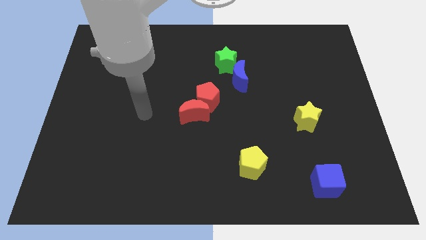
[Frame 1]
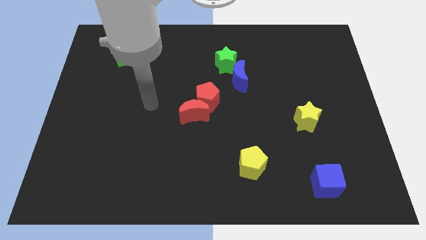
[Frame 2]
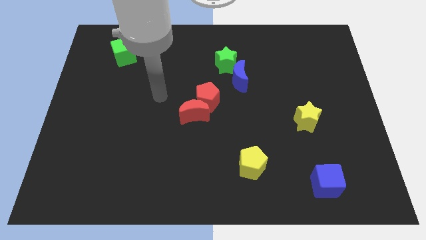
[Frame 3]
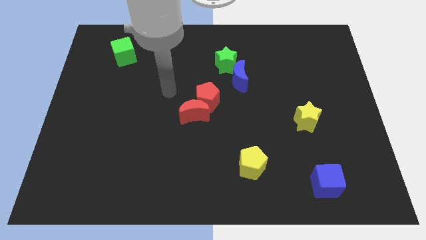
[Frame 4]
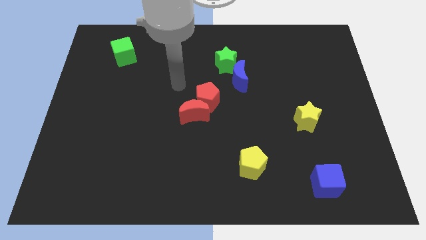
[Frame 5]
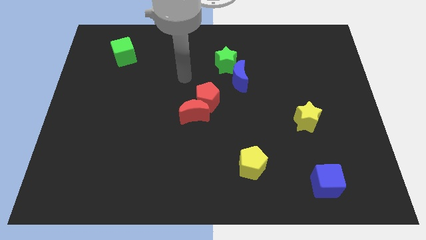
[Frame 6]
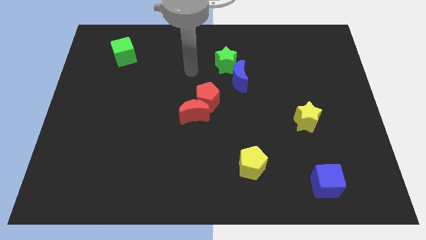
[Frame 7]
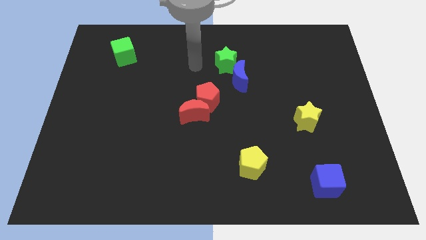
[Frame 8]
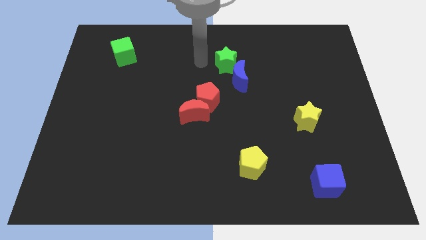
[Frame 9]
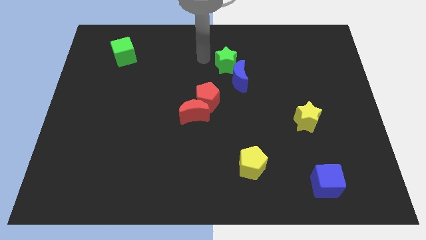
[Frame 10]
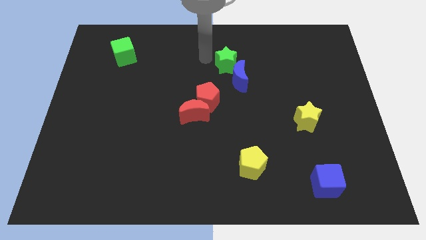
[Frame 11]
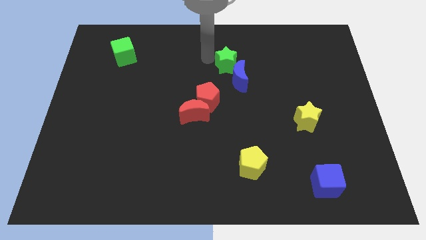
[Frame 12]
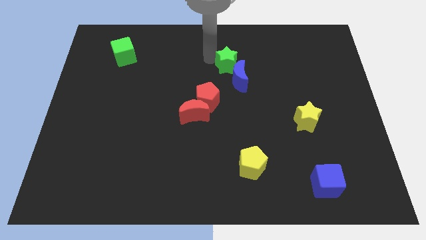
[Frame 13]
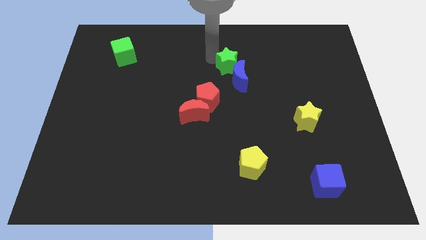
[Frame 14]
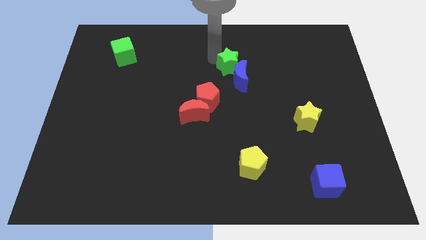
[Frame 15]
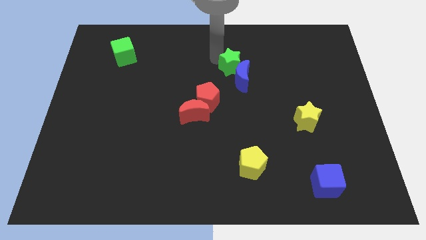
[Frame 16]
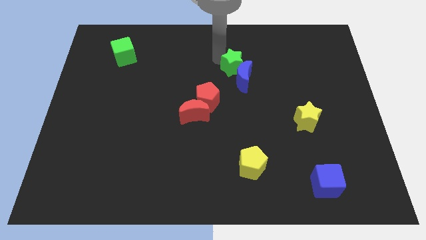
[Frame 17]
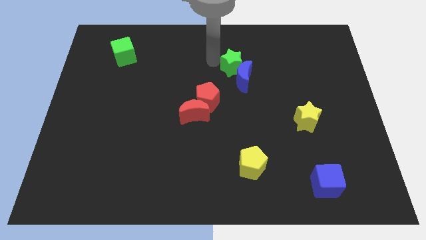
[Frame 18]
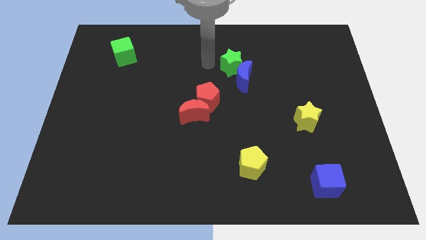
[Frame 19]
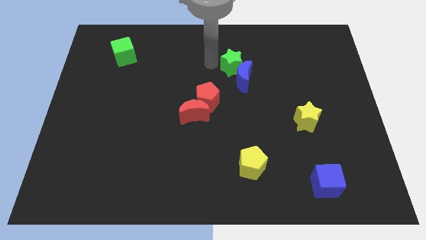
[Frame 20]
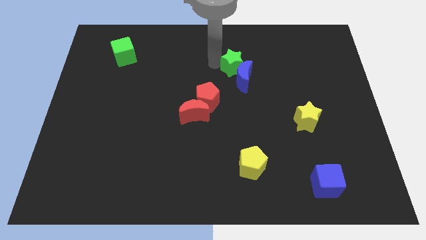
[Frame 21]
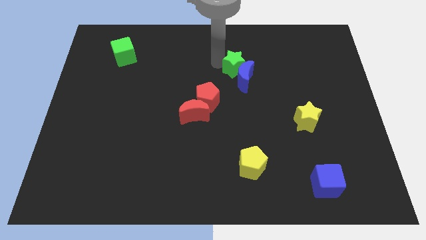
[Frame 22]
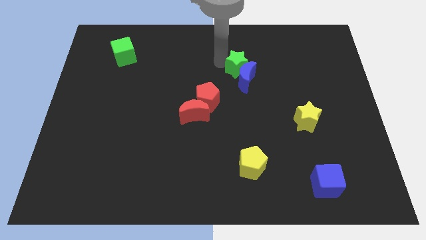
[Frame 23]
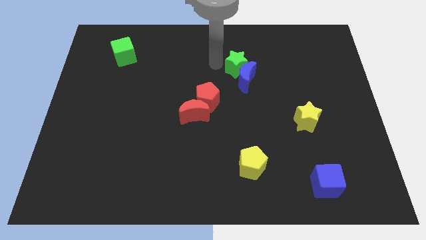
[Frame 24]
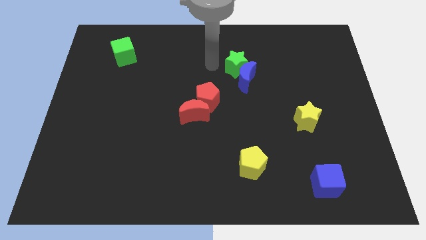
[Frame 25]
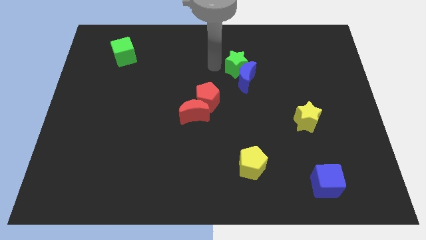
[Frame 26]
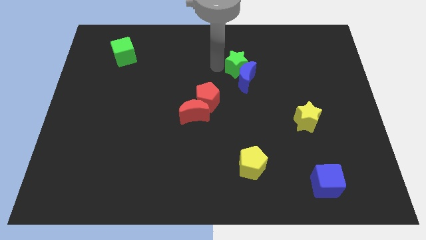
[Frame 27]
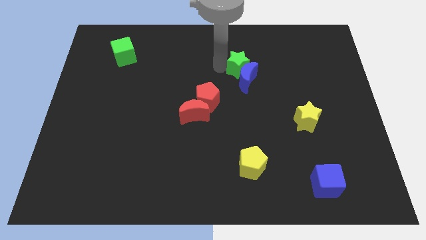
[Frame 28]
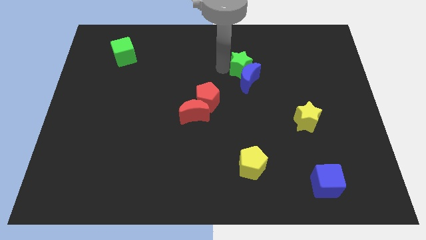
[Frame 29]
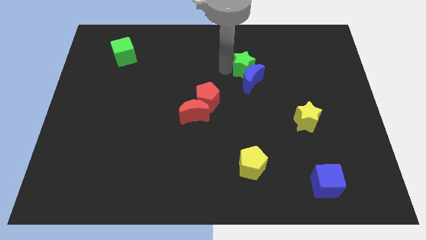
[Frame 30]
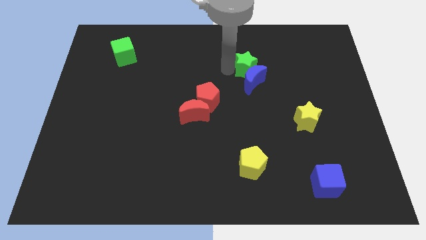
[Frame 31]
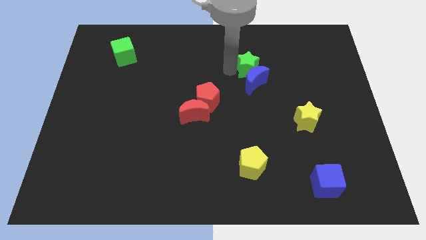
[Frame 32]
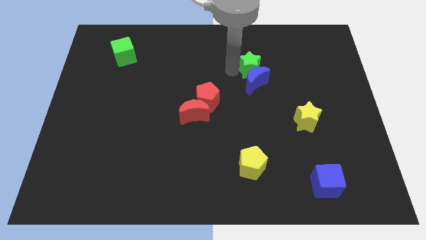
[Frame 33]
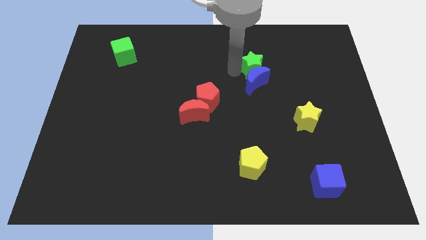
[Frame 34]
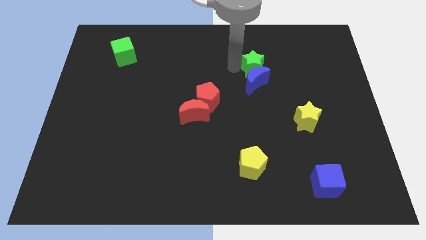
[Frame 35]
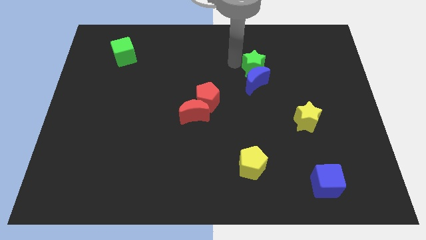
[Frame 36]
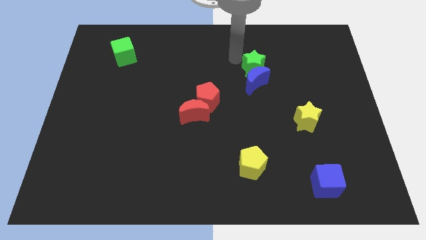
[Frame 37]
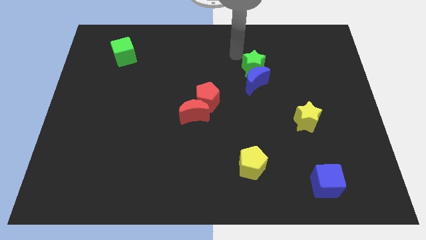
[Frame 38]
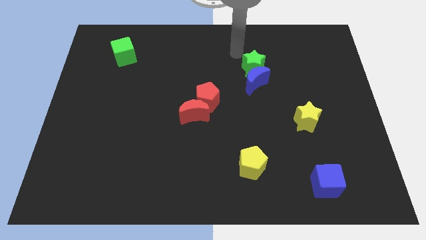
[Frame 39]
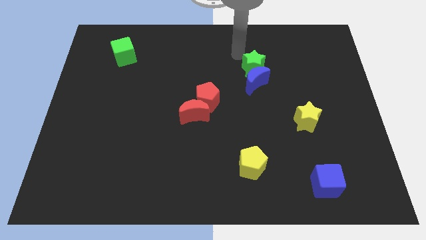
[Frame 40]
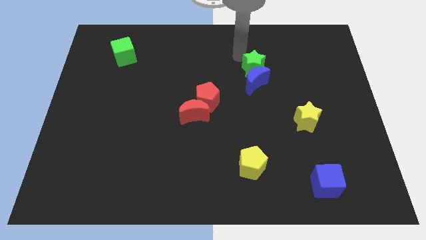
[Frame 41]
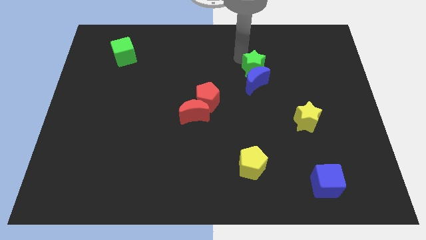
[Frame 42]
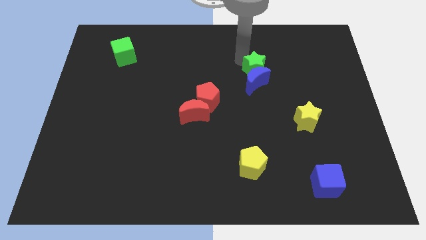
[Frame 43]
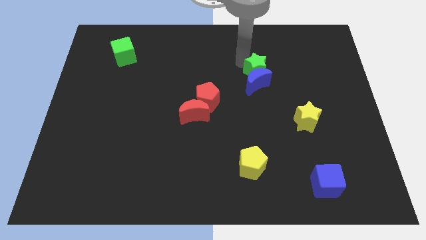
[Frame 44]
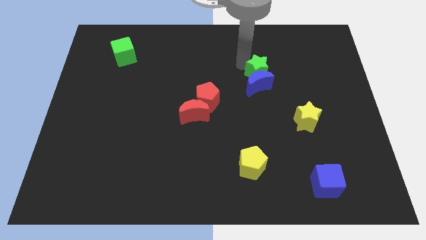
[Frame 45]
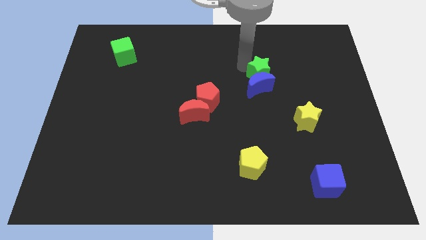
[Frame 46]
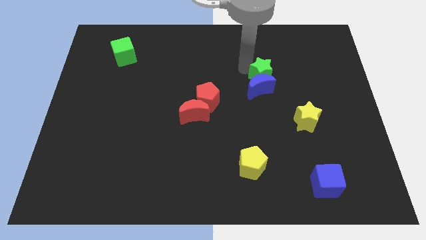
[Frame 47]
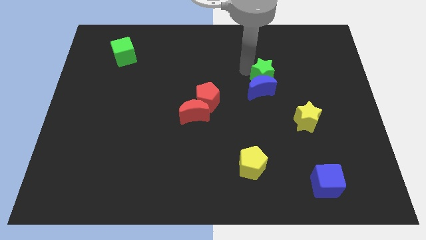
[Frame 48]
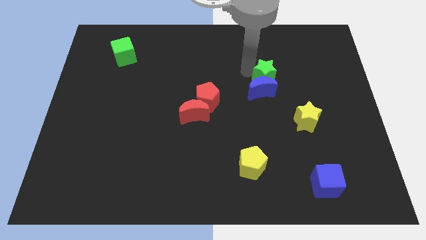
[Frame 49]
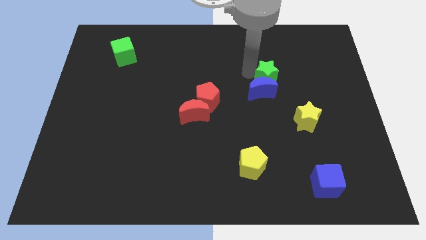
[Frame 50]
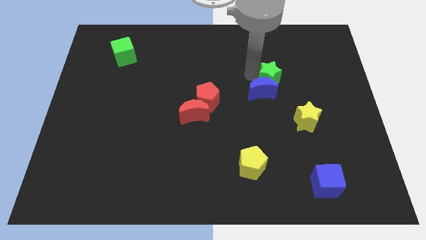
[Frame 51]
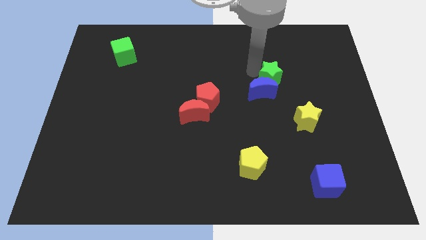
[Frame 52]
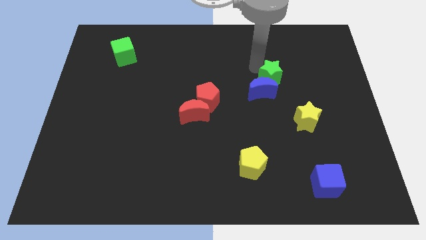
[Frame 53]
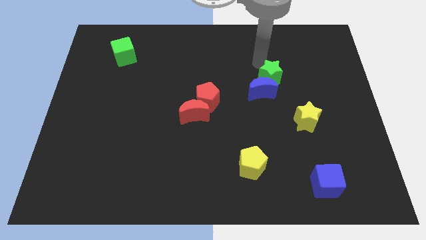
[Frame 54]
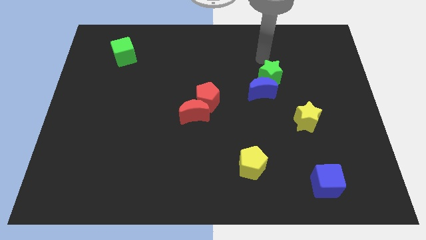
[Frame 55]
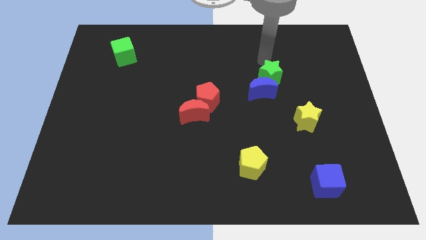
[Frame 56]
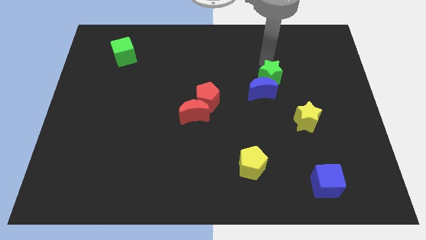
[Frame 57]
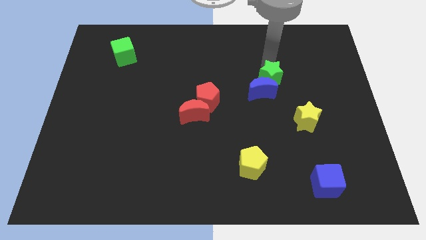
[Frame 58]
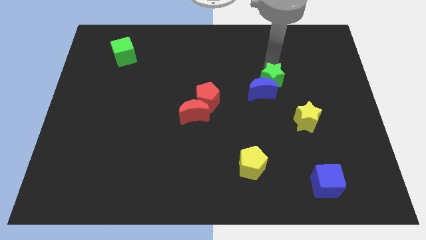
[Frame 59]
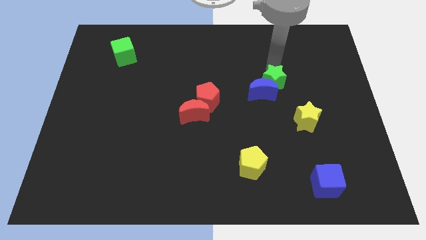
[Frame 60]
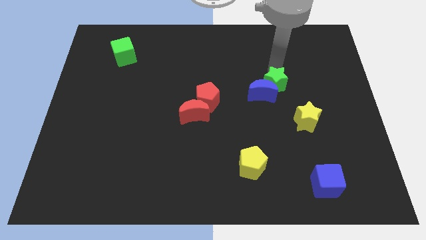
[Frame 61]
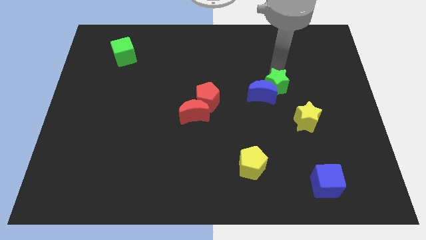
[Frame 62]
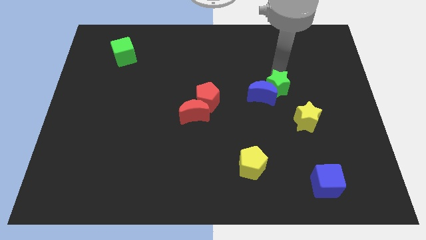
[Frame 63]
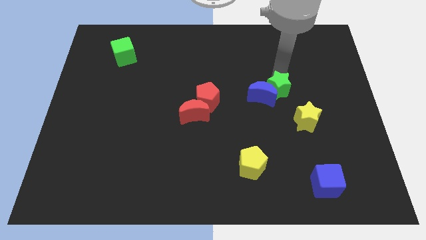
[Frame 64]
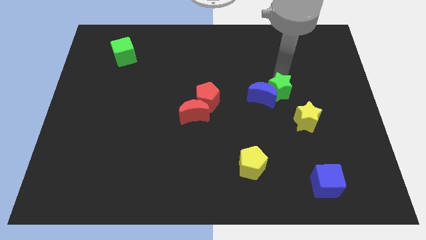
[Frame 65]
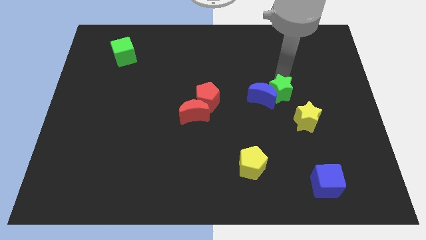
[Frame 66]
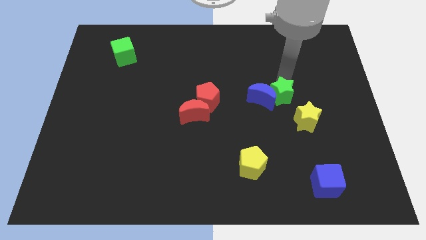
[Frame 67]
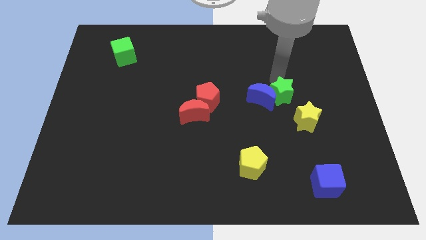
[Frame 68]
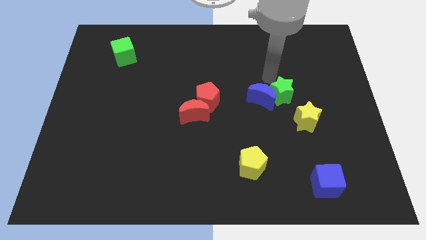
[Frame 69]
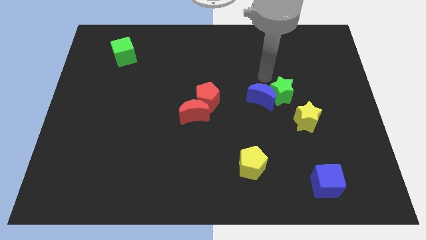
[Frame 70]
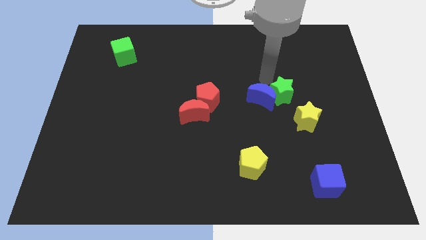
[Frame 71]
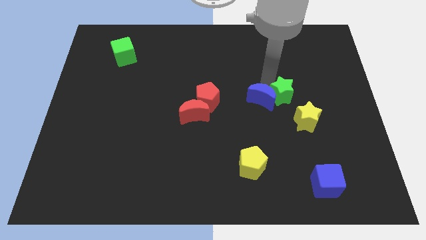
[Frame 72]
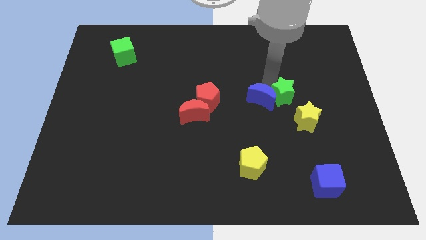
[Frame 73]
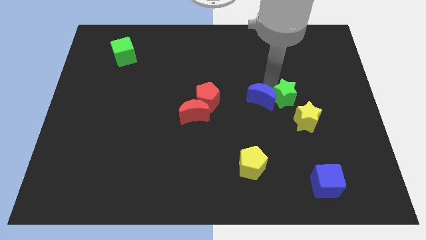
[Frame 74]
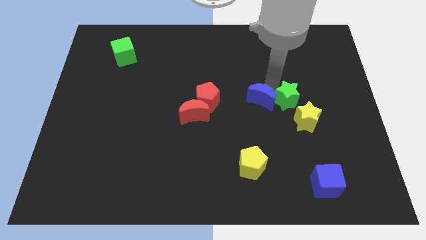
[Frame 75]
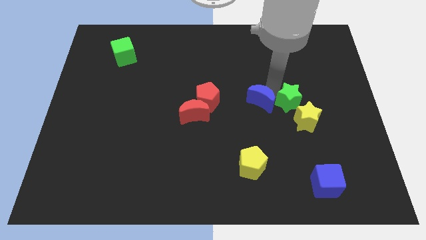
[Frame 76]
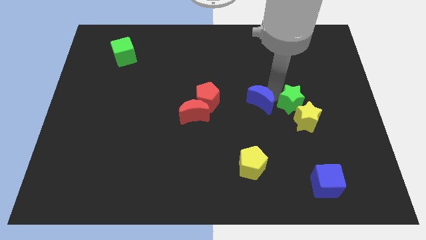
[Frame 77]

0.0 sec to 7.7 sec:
move the green star towards the yellow star
